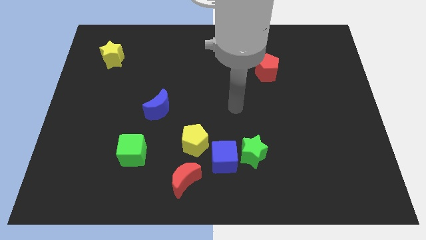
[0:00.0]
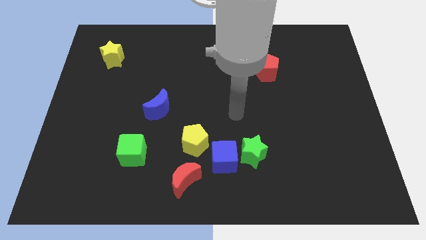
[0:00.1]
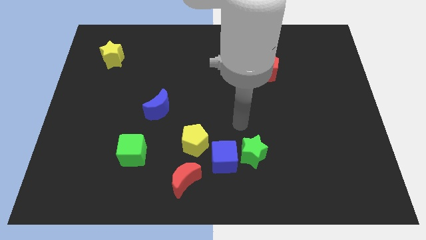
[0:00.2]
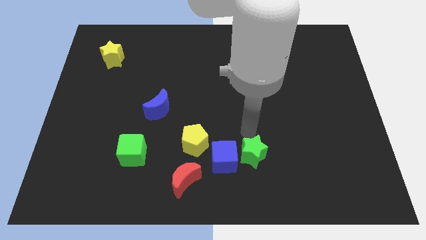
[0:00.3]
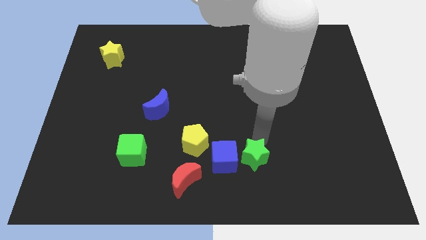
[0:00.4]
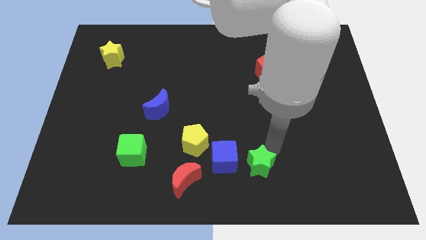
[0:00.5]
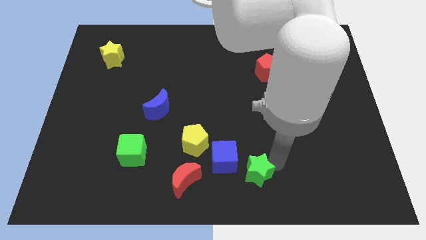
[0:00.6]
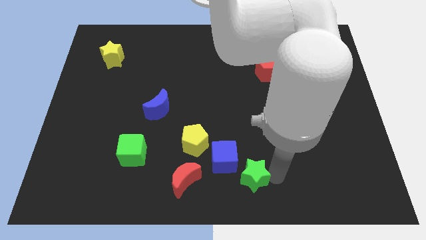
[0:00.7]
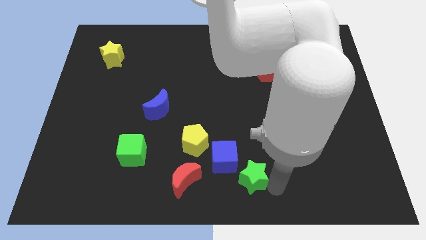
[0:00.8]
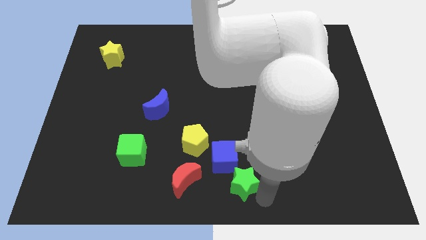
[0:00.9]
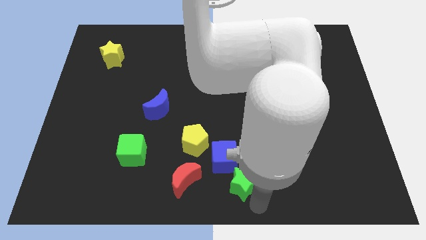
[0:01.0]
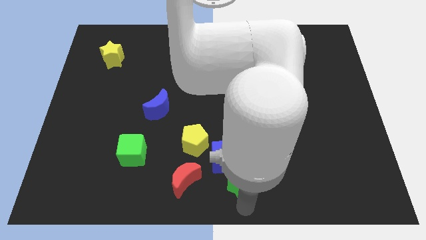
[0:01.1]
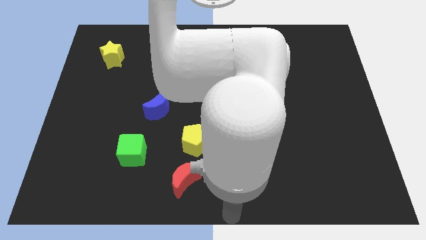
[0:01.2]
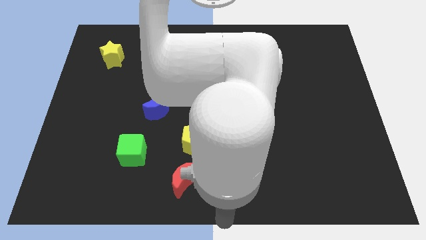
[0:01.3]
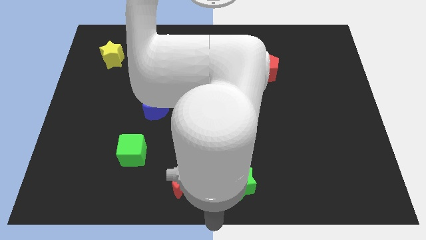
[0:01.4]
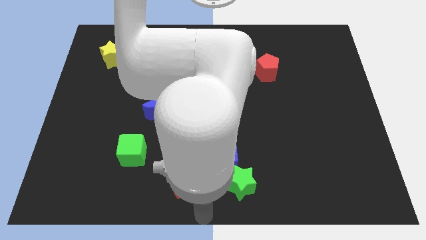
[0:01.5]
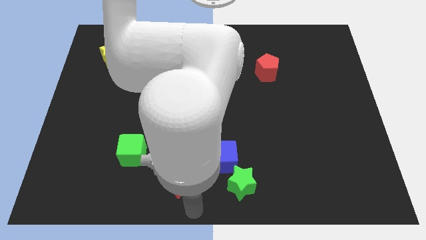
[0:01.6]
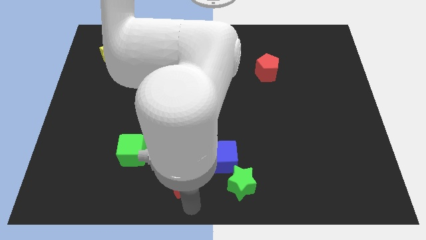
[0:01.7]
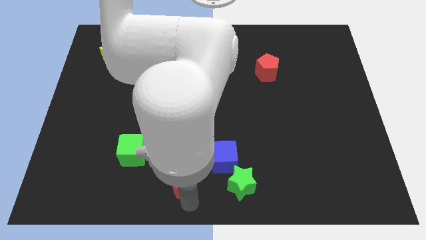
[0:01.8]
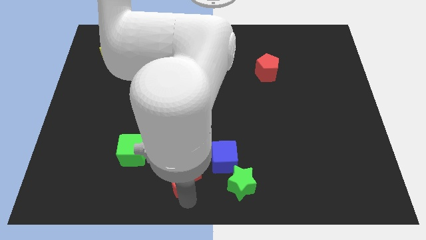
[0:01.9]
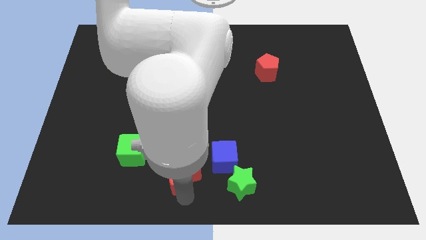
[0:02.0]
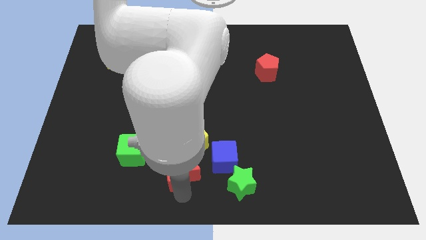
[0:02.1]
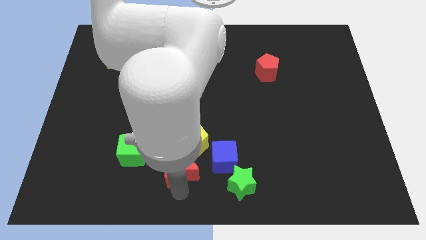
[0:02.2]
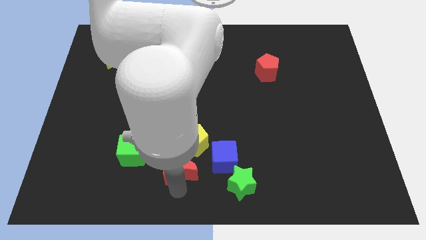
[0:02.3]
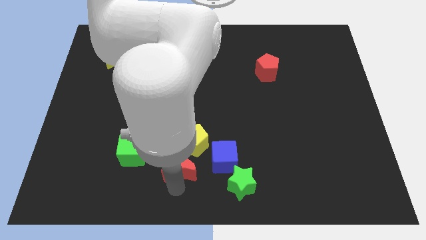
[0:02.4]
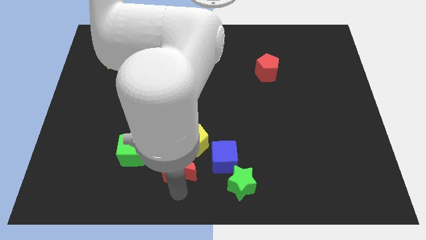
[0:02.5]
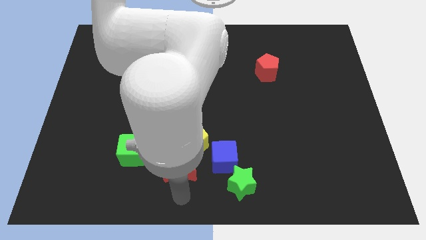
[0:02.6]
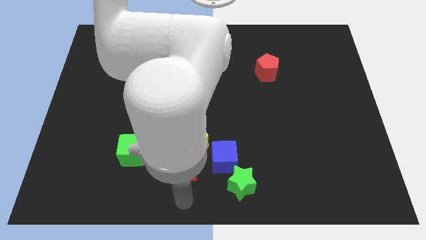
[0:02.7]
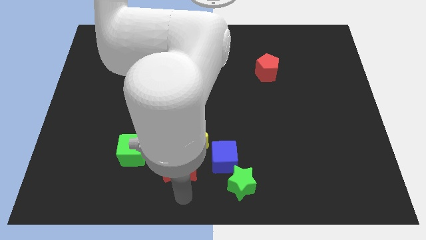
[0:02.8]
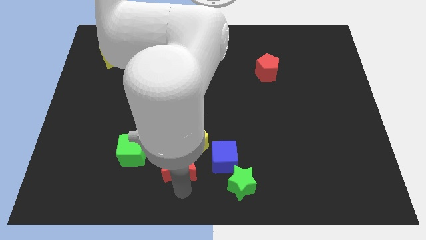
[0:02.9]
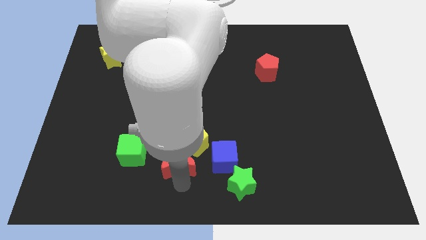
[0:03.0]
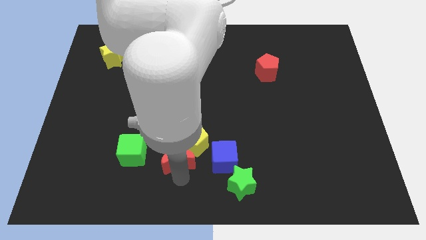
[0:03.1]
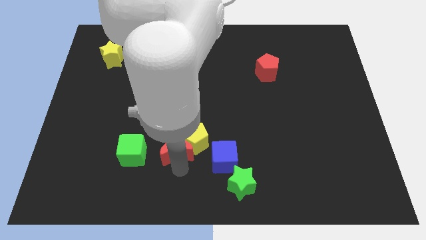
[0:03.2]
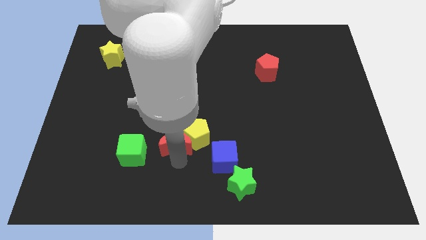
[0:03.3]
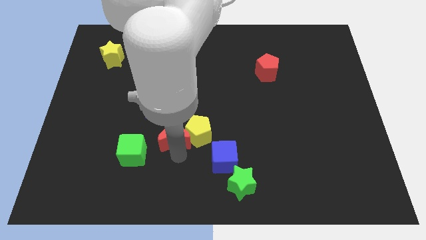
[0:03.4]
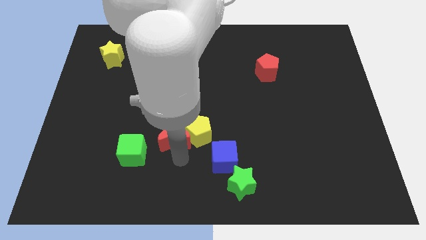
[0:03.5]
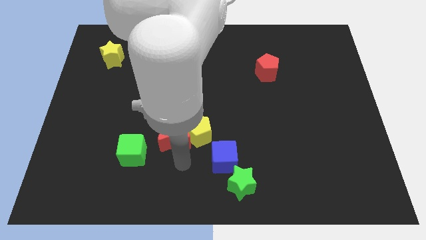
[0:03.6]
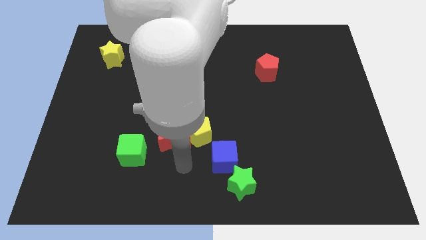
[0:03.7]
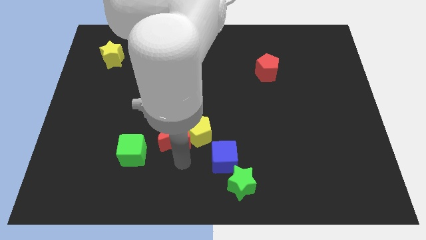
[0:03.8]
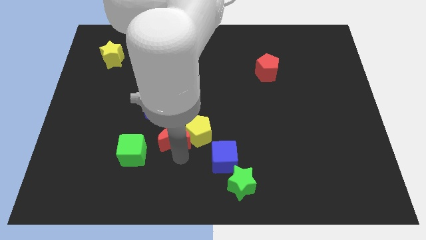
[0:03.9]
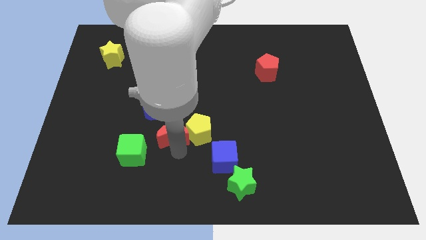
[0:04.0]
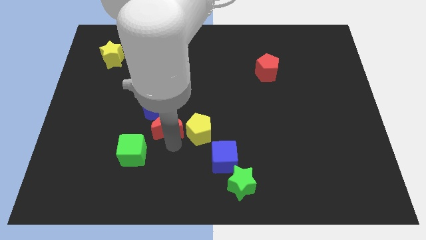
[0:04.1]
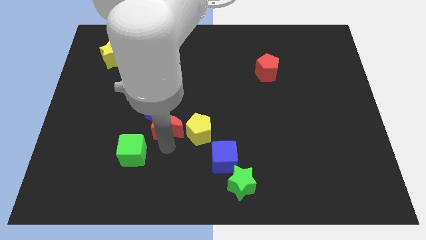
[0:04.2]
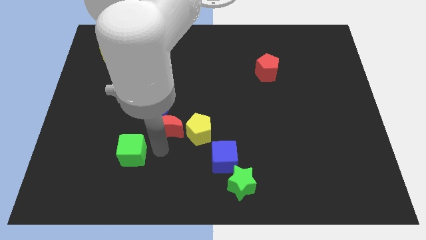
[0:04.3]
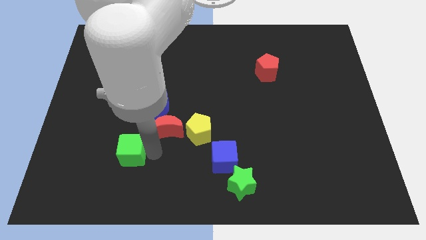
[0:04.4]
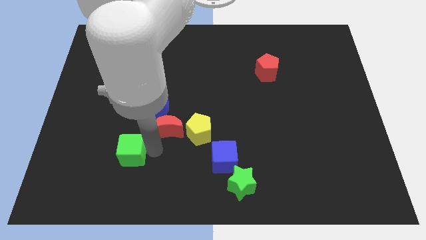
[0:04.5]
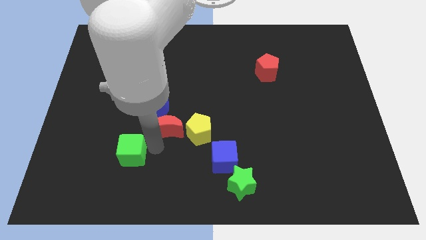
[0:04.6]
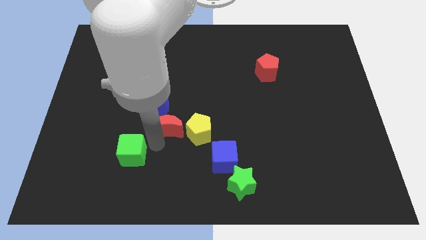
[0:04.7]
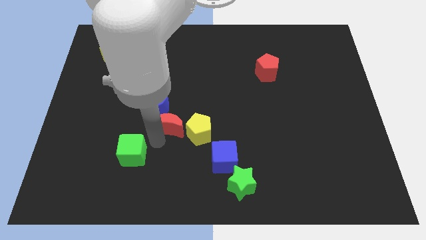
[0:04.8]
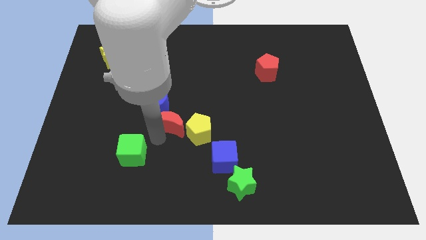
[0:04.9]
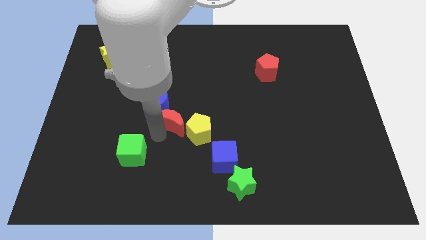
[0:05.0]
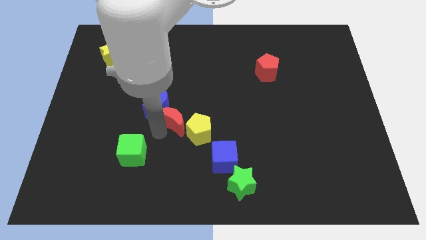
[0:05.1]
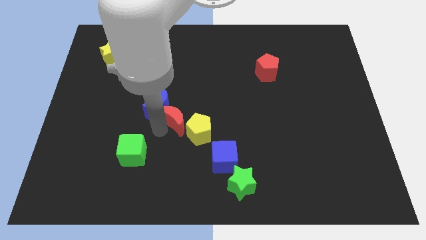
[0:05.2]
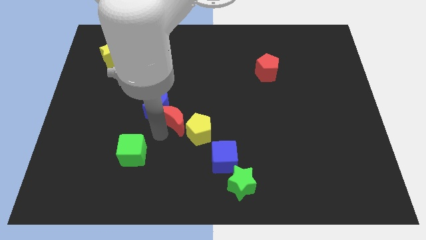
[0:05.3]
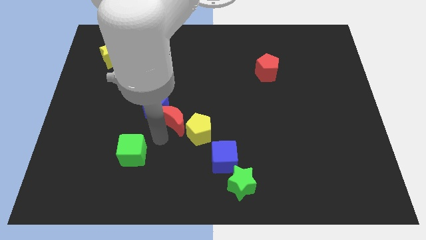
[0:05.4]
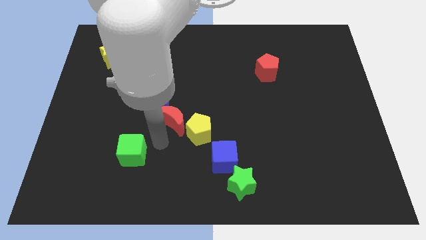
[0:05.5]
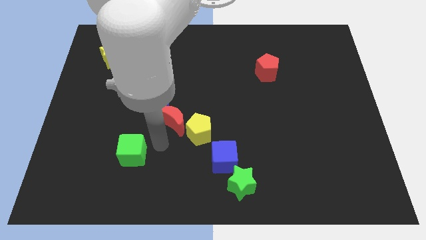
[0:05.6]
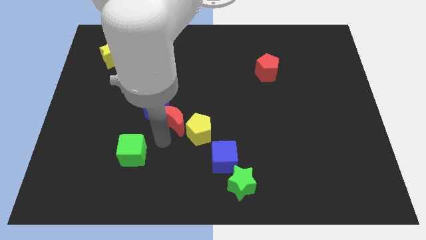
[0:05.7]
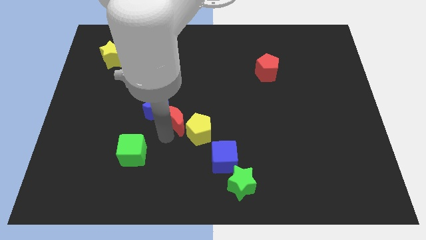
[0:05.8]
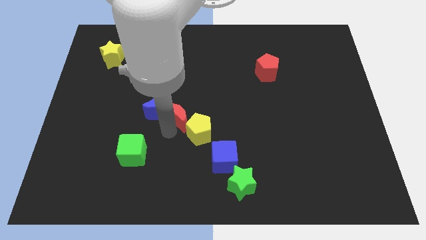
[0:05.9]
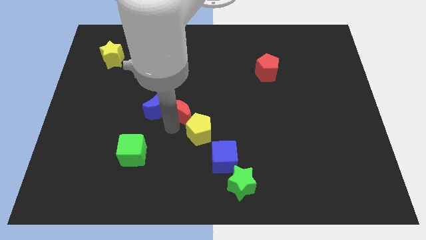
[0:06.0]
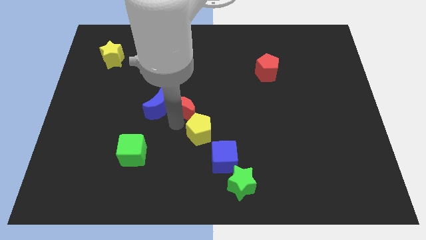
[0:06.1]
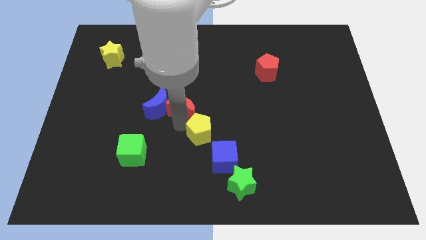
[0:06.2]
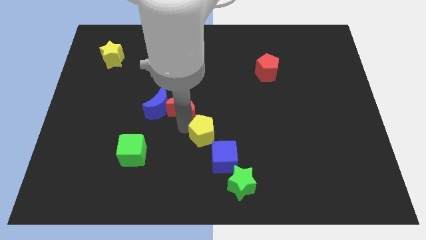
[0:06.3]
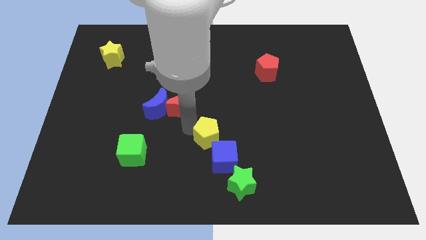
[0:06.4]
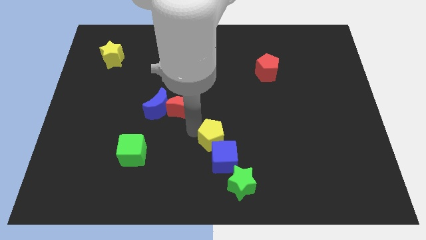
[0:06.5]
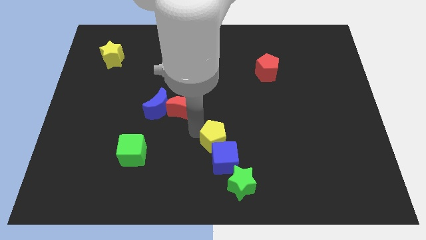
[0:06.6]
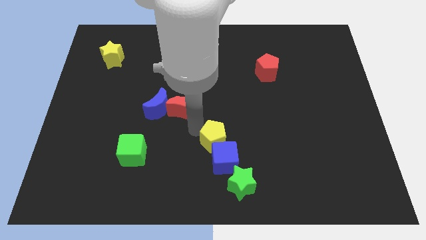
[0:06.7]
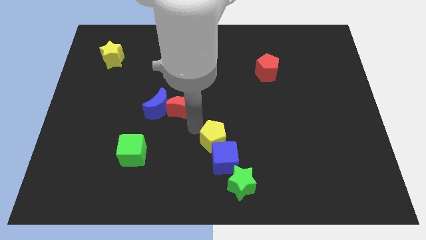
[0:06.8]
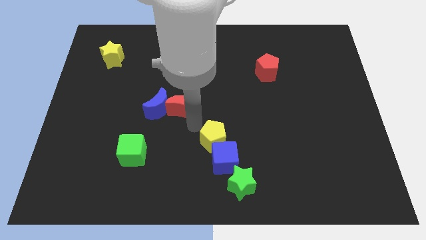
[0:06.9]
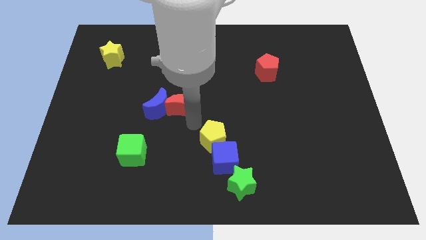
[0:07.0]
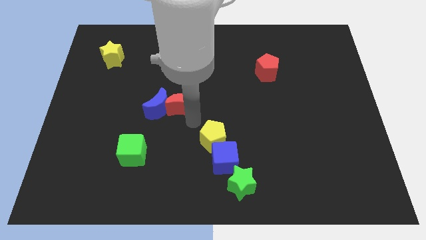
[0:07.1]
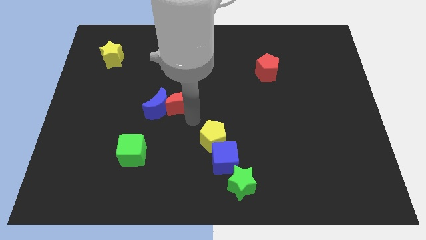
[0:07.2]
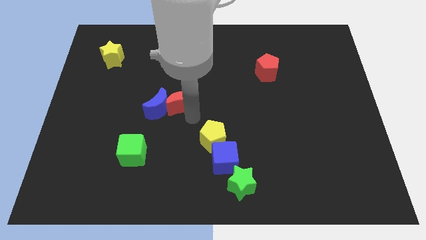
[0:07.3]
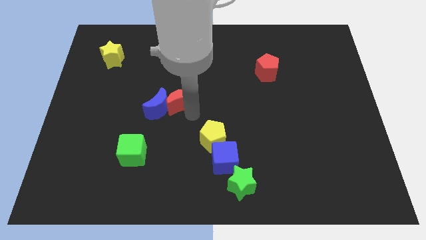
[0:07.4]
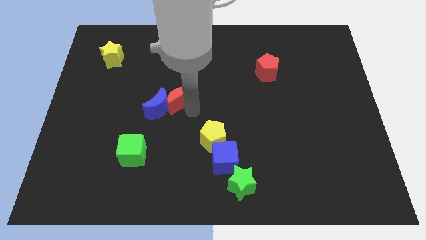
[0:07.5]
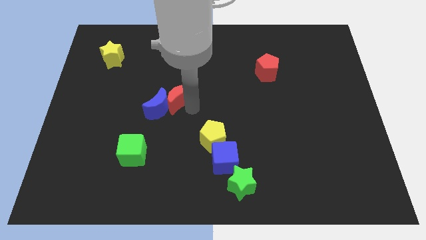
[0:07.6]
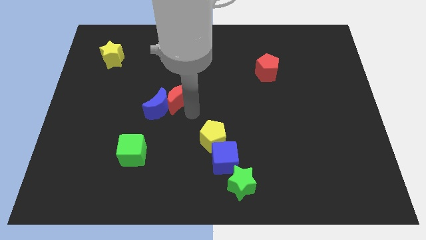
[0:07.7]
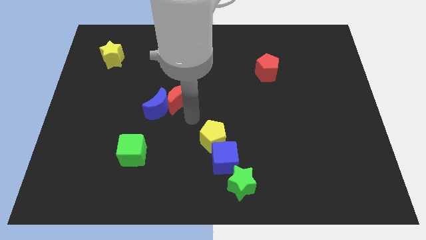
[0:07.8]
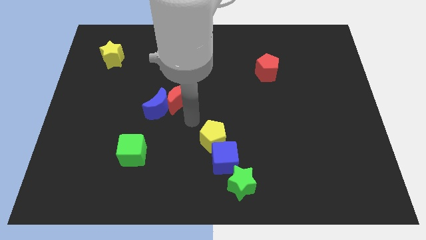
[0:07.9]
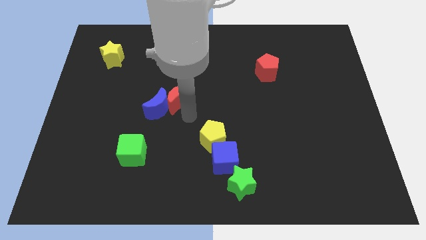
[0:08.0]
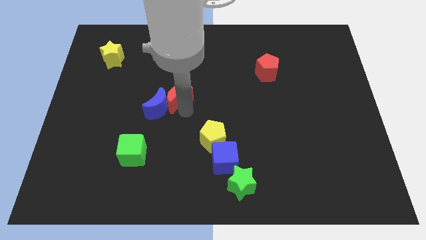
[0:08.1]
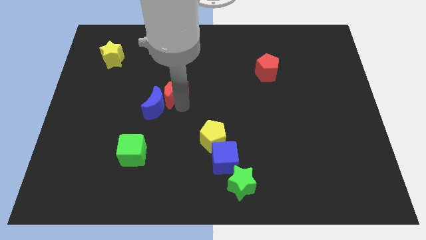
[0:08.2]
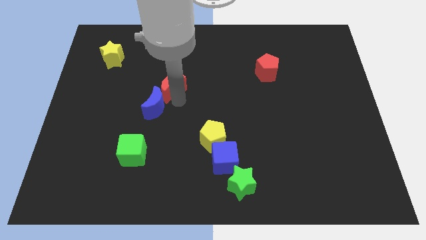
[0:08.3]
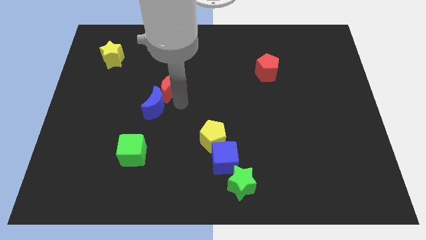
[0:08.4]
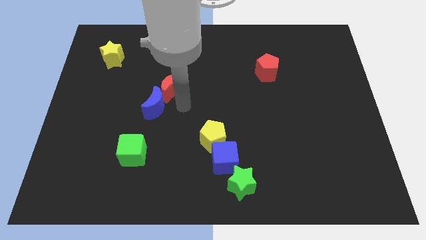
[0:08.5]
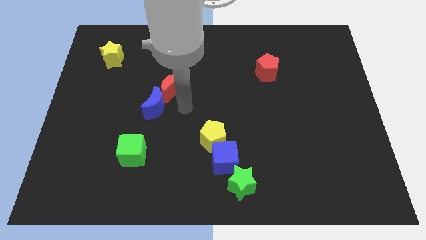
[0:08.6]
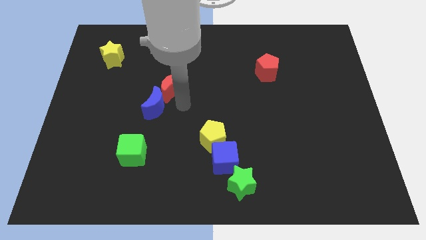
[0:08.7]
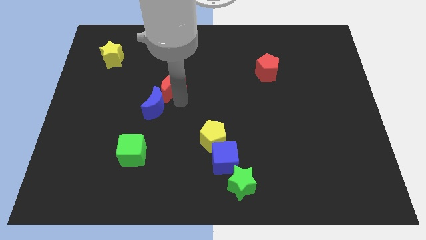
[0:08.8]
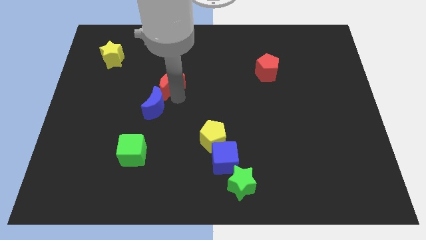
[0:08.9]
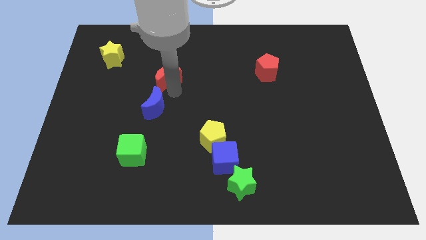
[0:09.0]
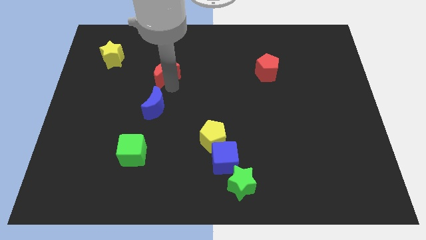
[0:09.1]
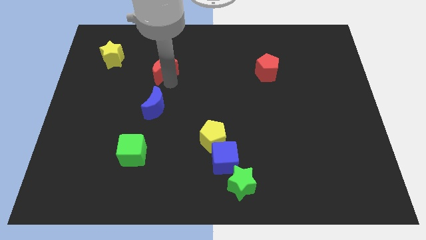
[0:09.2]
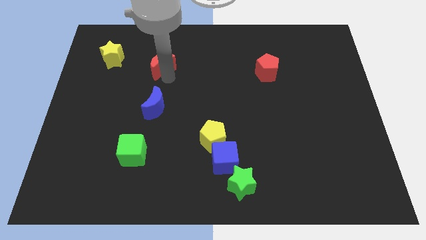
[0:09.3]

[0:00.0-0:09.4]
slide the red moon to the right side of the yellow star
